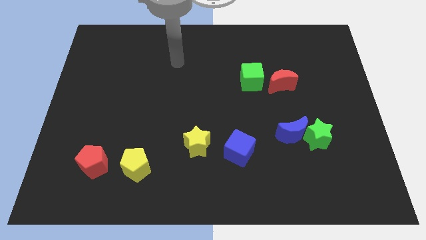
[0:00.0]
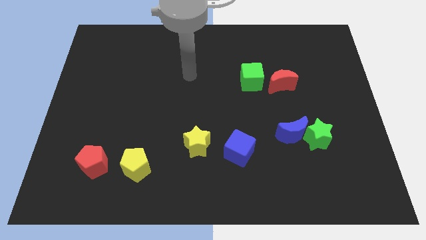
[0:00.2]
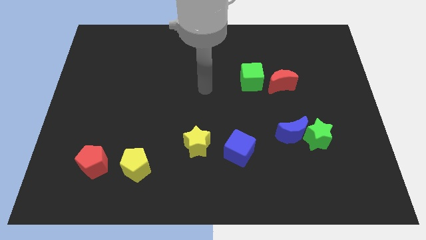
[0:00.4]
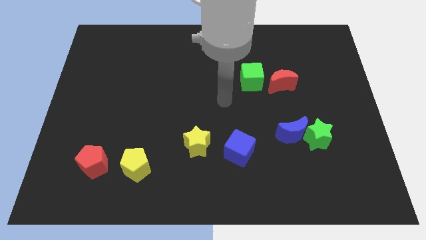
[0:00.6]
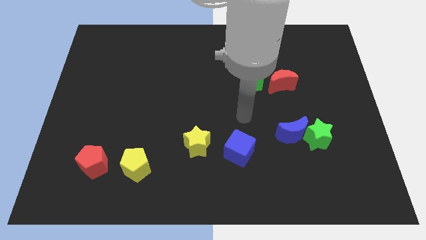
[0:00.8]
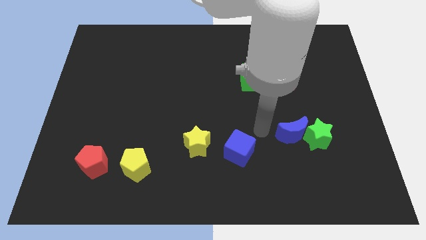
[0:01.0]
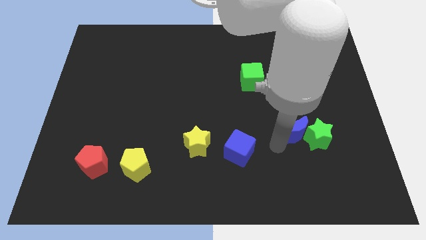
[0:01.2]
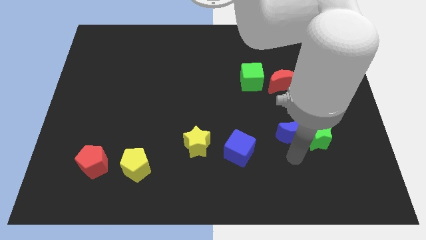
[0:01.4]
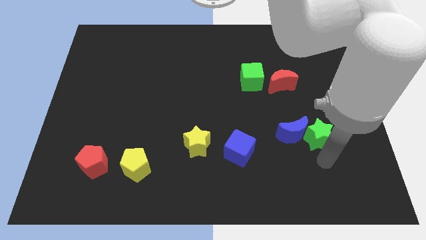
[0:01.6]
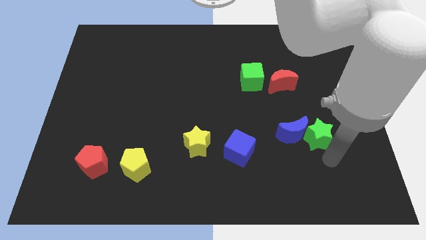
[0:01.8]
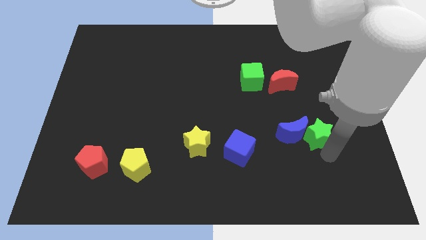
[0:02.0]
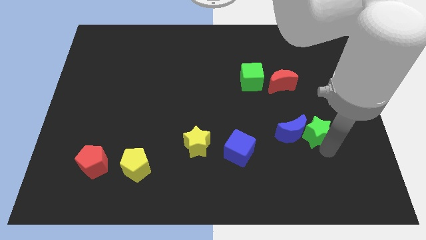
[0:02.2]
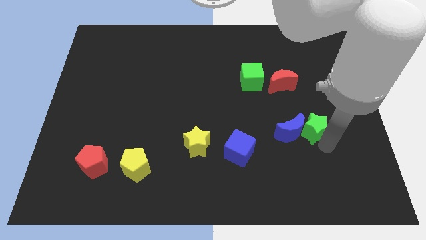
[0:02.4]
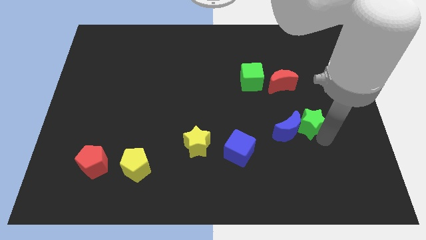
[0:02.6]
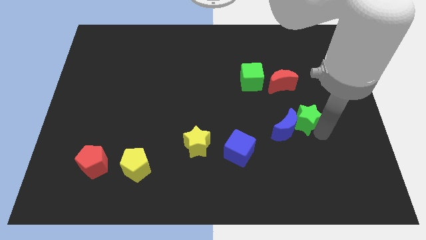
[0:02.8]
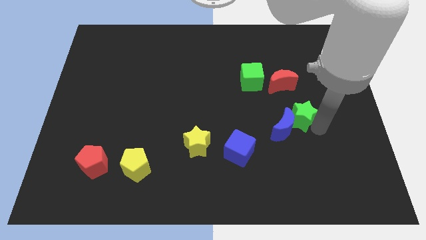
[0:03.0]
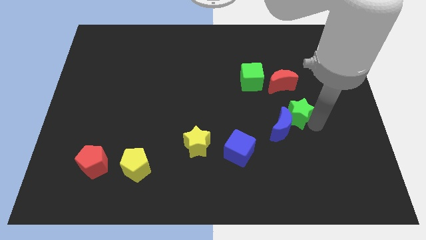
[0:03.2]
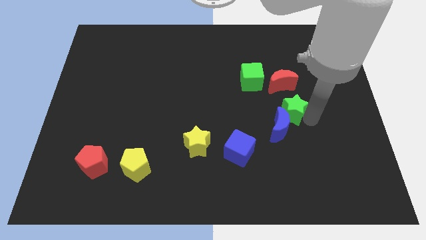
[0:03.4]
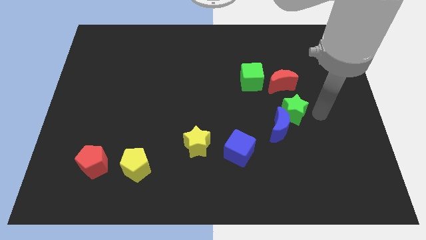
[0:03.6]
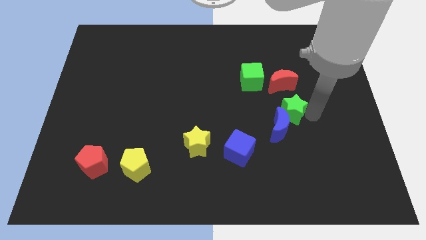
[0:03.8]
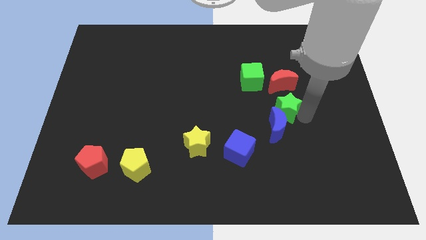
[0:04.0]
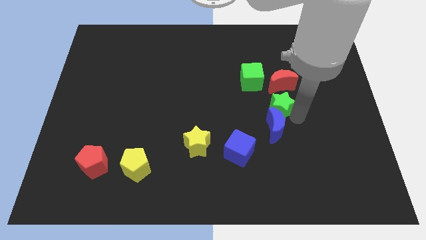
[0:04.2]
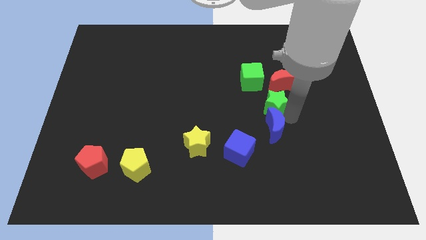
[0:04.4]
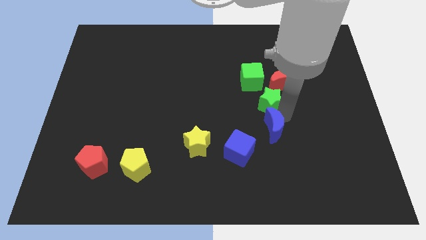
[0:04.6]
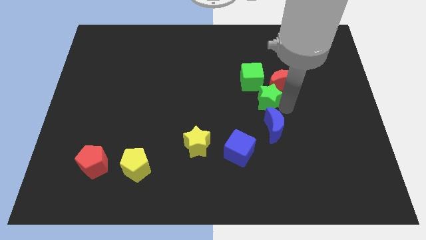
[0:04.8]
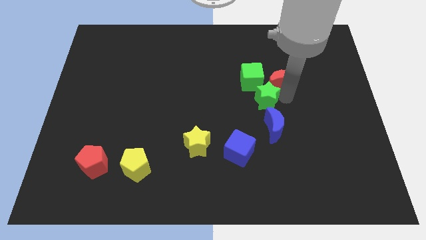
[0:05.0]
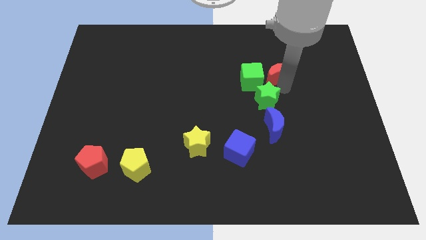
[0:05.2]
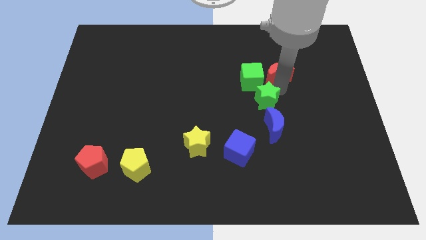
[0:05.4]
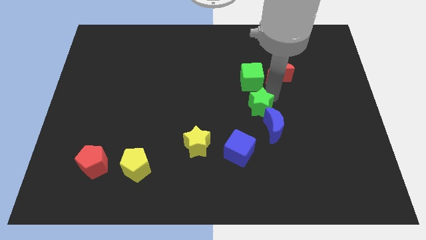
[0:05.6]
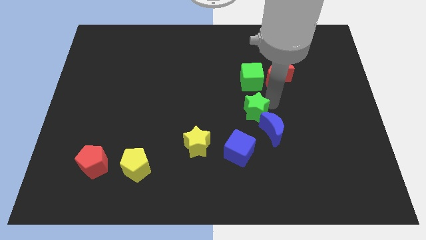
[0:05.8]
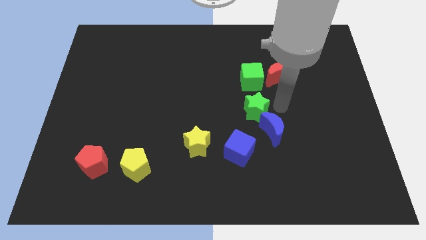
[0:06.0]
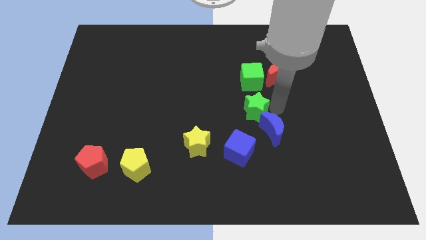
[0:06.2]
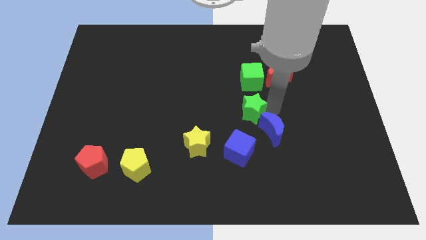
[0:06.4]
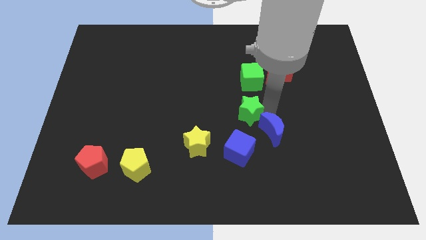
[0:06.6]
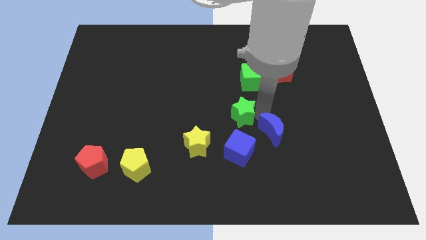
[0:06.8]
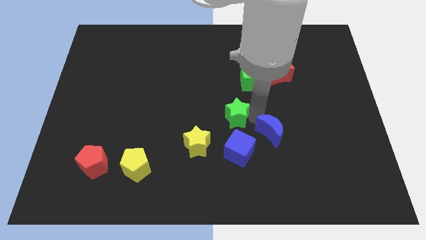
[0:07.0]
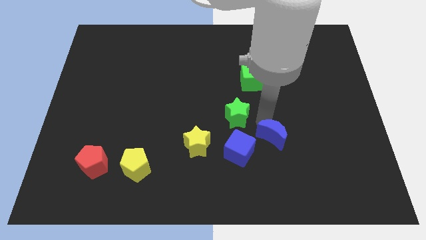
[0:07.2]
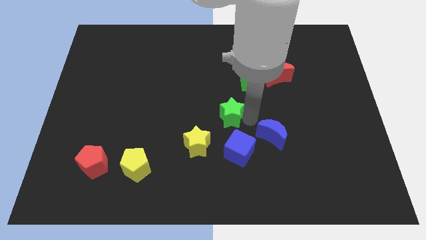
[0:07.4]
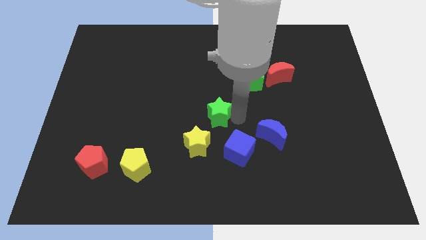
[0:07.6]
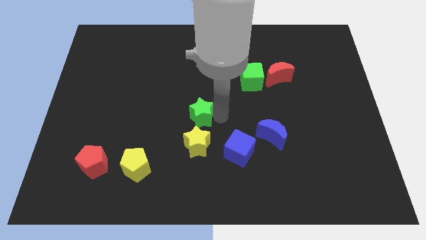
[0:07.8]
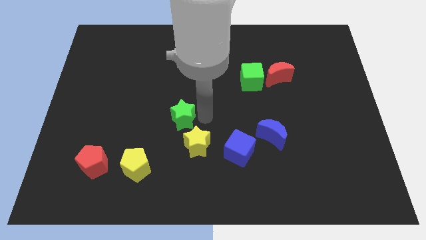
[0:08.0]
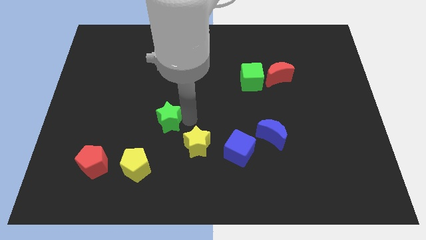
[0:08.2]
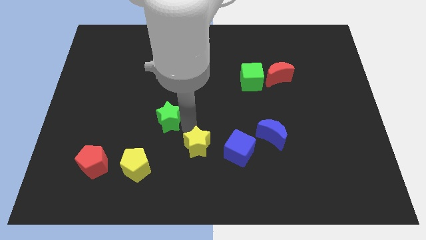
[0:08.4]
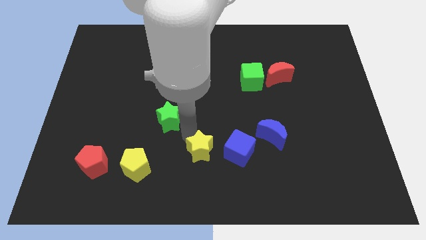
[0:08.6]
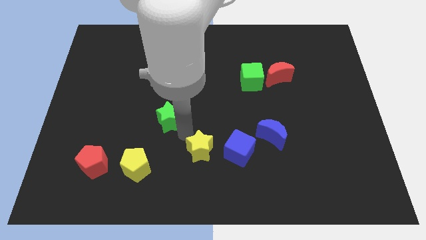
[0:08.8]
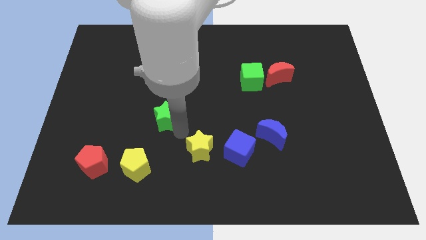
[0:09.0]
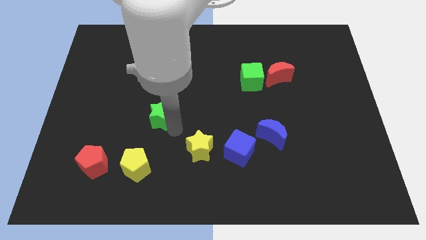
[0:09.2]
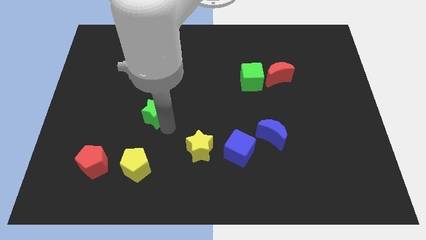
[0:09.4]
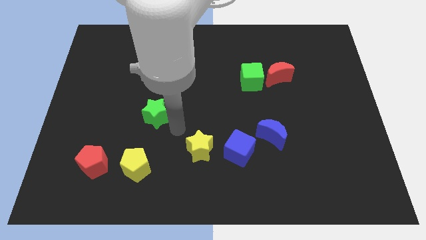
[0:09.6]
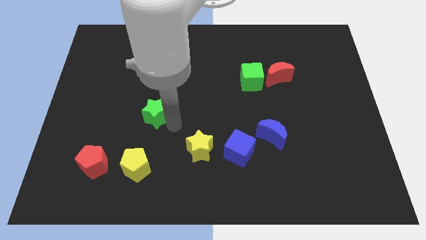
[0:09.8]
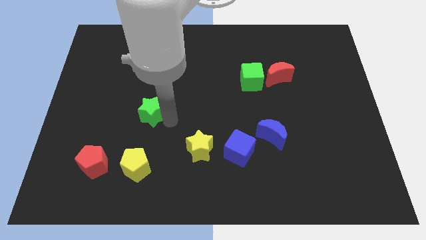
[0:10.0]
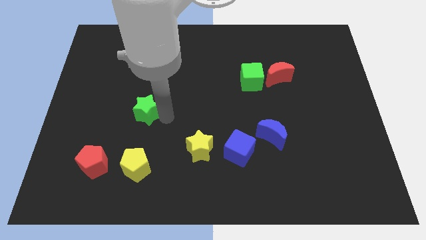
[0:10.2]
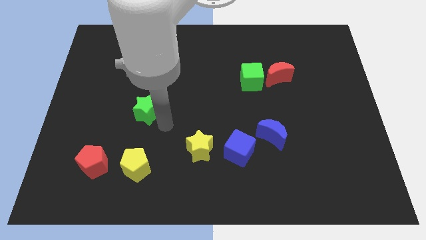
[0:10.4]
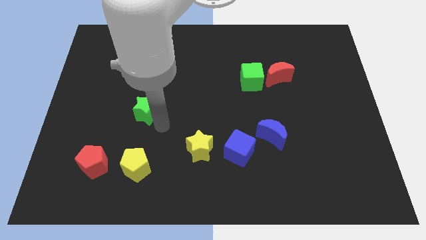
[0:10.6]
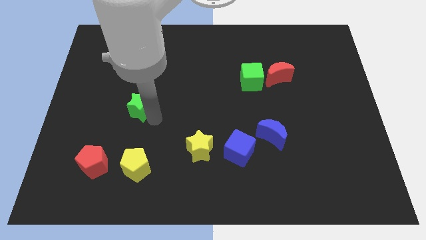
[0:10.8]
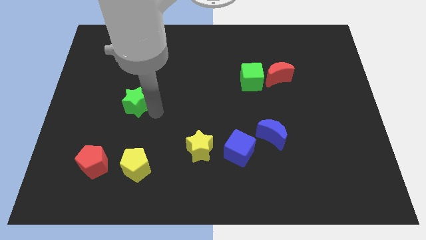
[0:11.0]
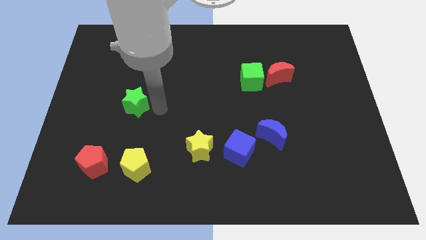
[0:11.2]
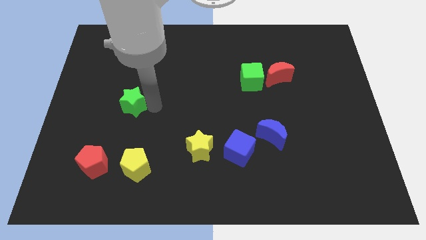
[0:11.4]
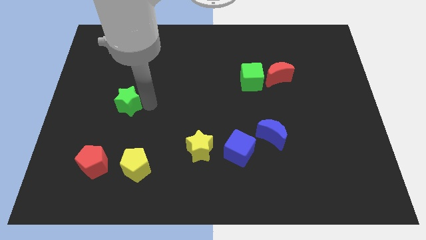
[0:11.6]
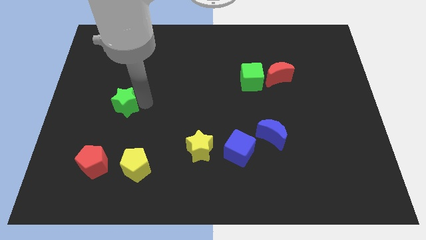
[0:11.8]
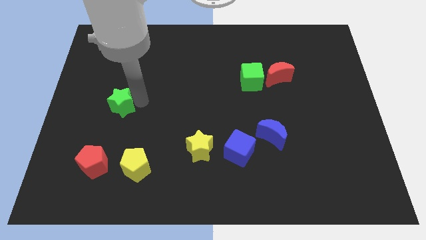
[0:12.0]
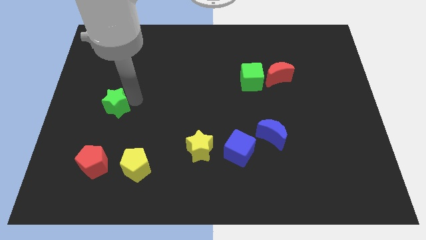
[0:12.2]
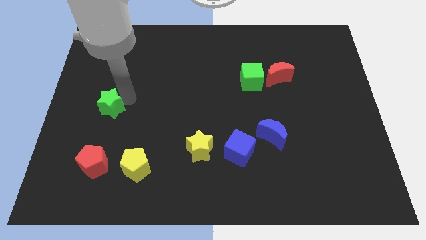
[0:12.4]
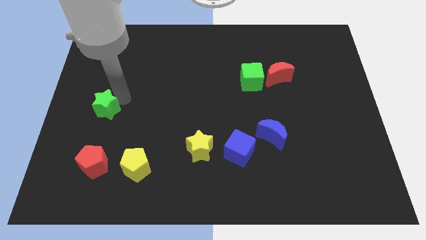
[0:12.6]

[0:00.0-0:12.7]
put the green star to the center left
